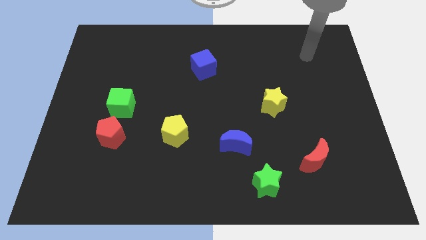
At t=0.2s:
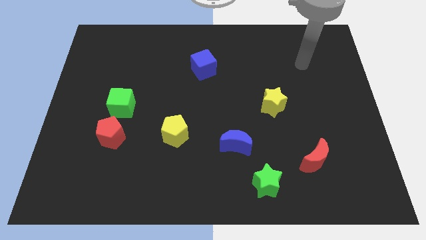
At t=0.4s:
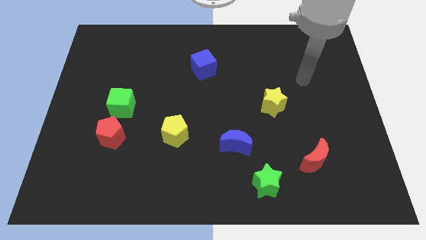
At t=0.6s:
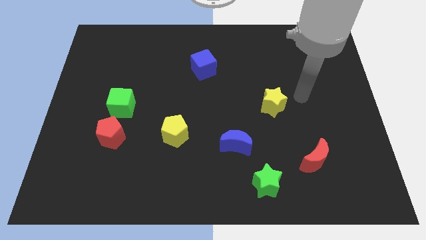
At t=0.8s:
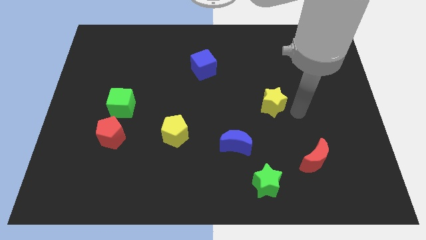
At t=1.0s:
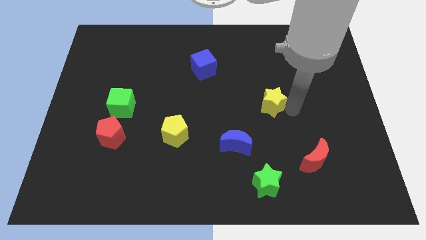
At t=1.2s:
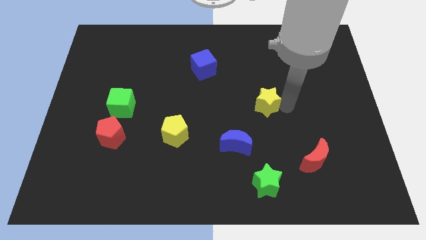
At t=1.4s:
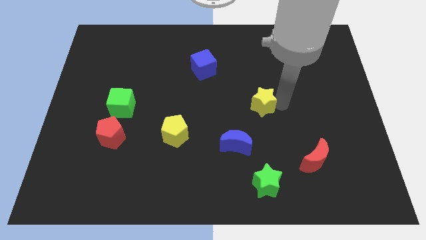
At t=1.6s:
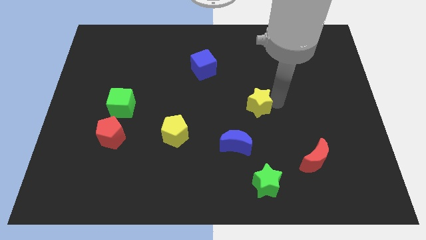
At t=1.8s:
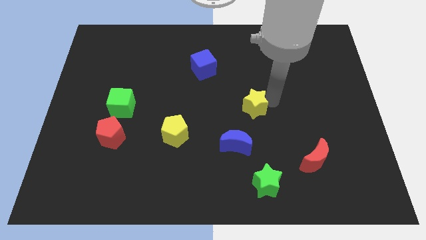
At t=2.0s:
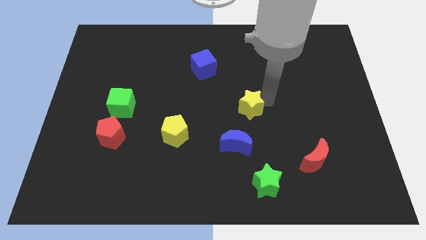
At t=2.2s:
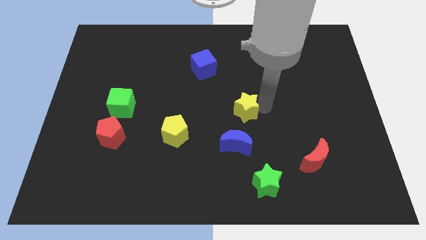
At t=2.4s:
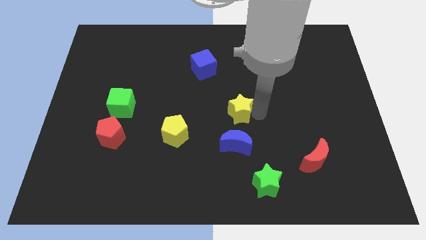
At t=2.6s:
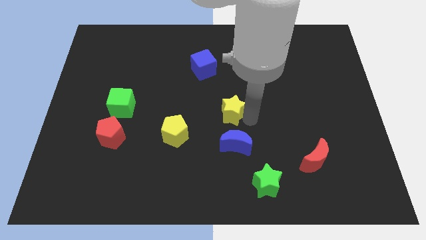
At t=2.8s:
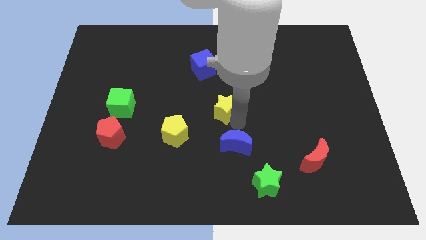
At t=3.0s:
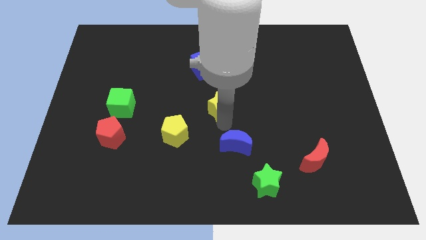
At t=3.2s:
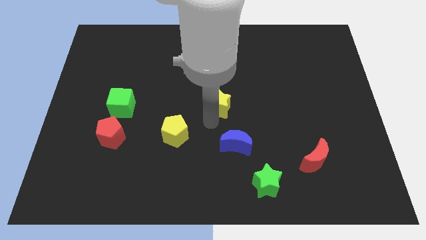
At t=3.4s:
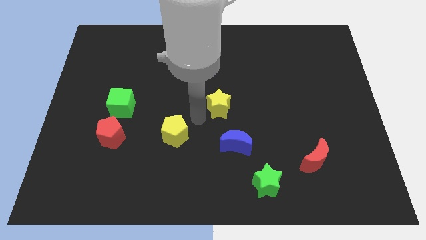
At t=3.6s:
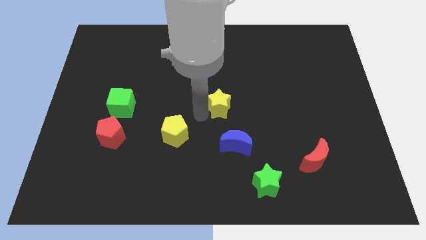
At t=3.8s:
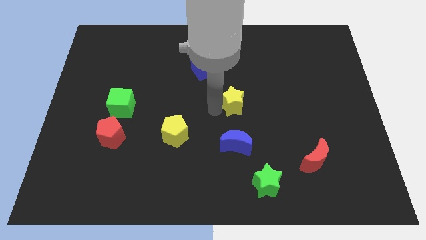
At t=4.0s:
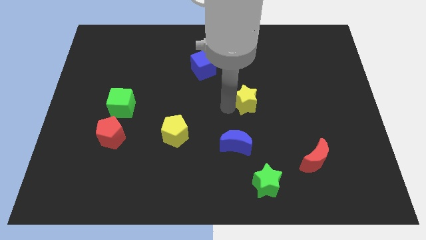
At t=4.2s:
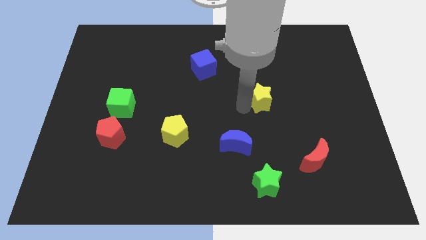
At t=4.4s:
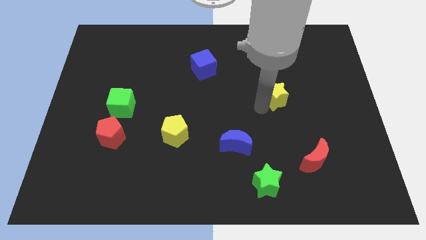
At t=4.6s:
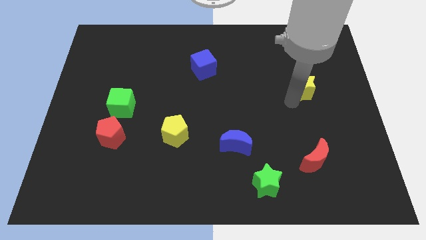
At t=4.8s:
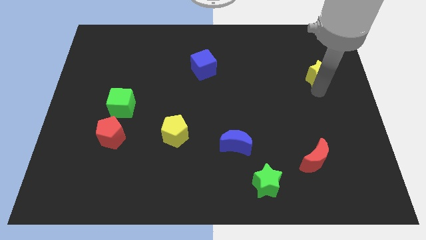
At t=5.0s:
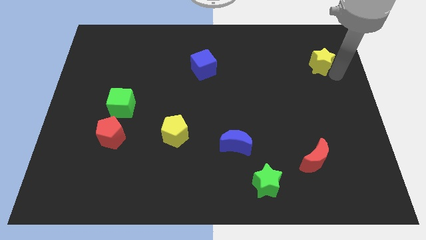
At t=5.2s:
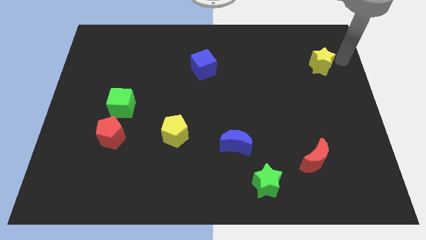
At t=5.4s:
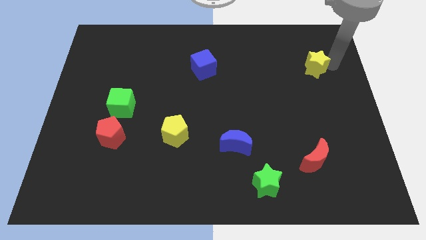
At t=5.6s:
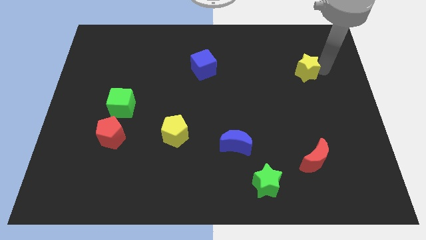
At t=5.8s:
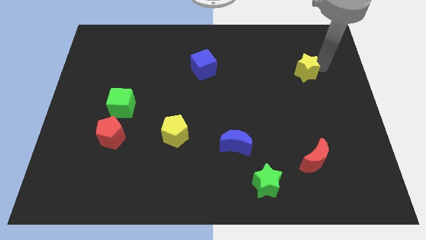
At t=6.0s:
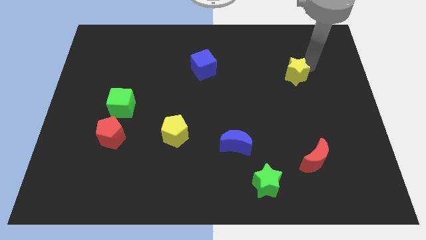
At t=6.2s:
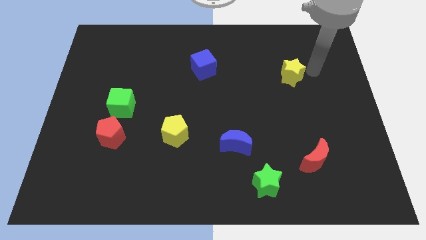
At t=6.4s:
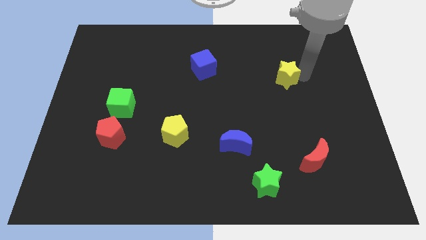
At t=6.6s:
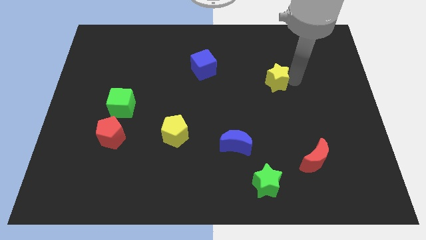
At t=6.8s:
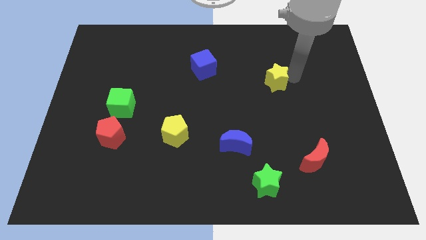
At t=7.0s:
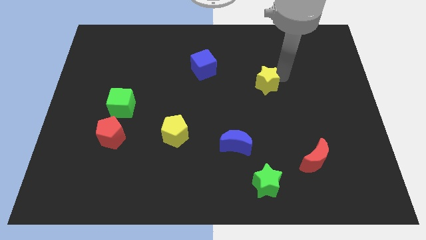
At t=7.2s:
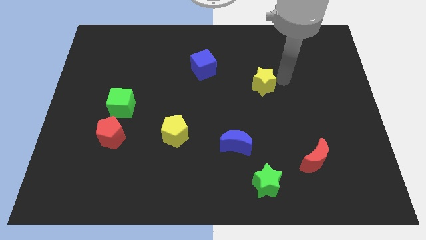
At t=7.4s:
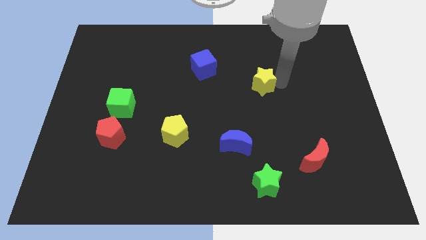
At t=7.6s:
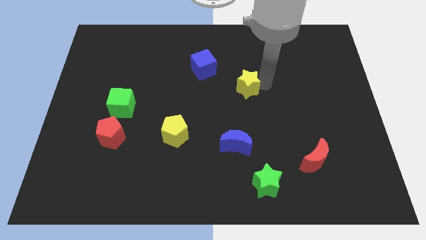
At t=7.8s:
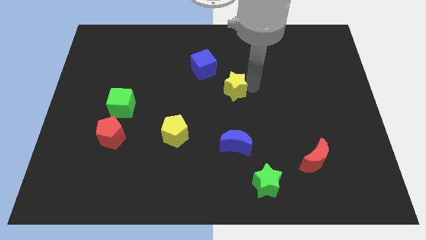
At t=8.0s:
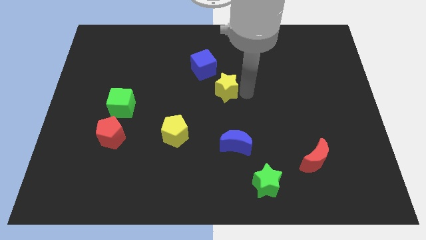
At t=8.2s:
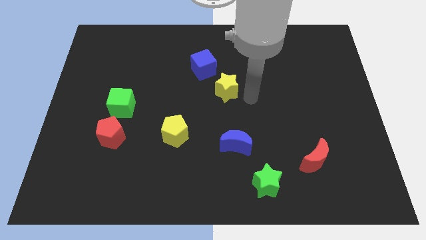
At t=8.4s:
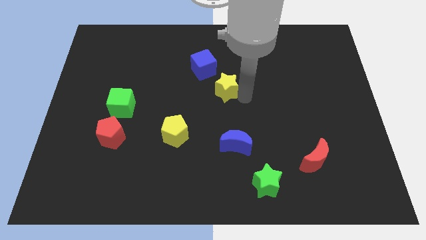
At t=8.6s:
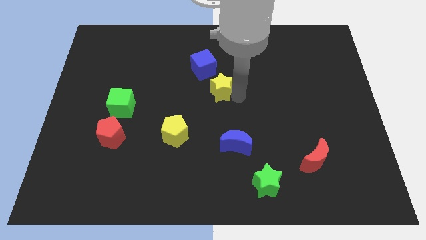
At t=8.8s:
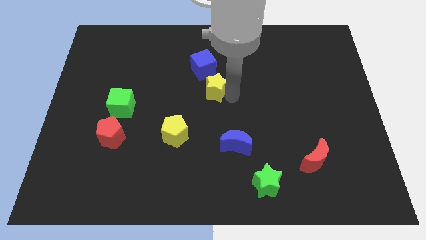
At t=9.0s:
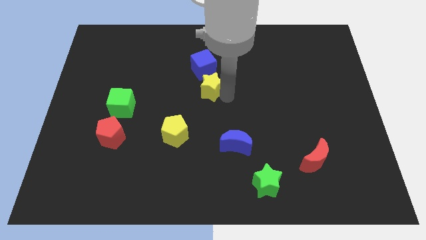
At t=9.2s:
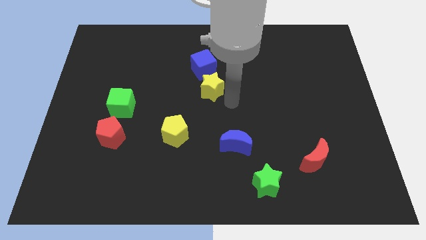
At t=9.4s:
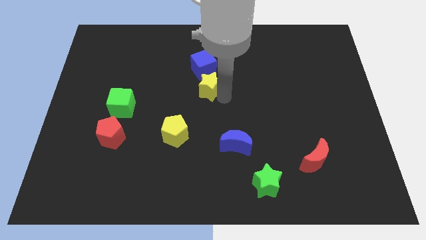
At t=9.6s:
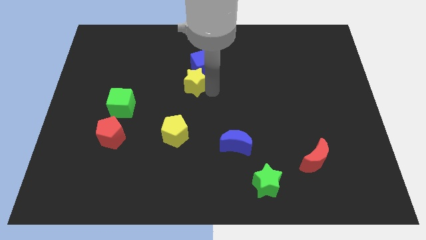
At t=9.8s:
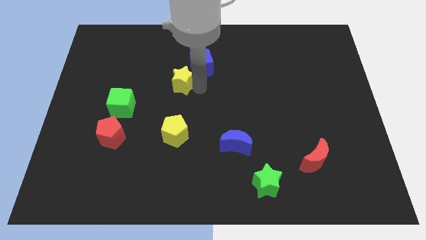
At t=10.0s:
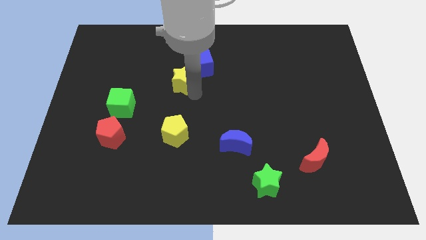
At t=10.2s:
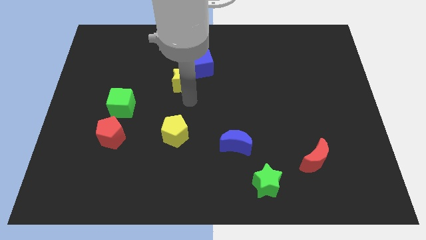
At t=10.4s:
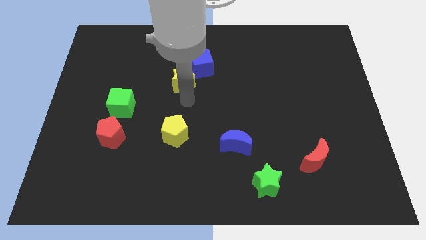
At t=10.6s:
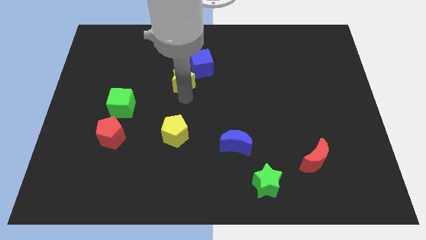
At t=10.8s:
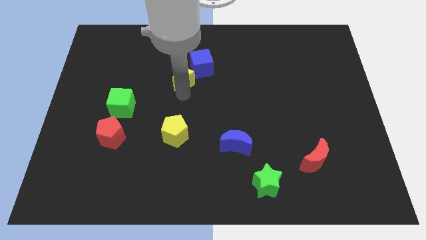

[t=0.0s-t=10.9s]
put the yellow star to the left side of the blue cube
